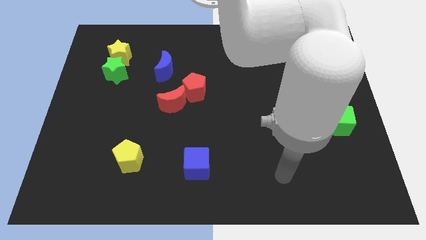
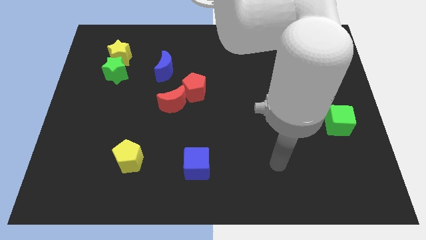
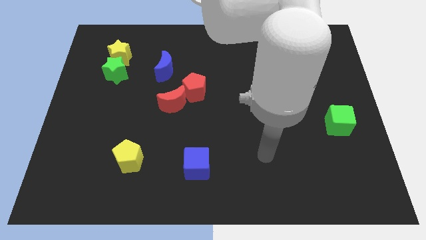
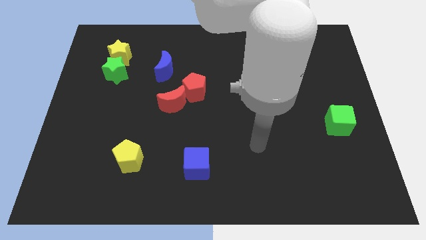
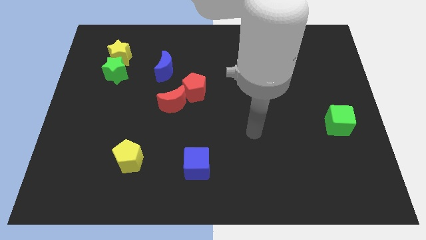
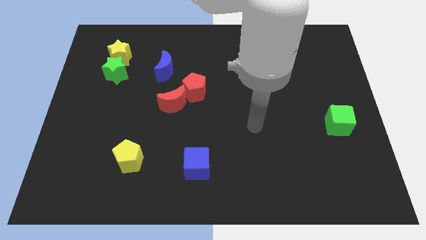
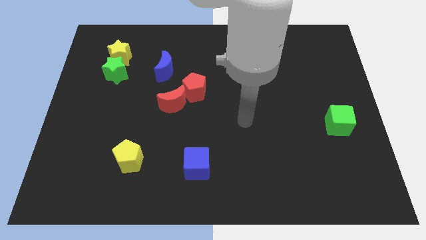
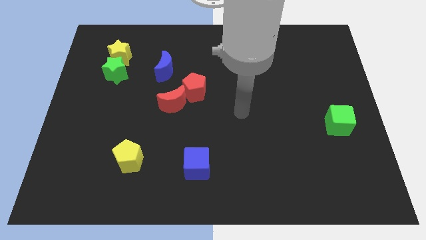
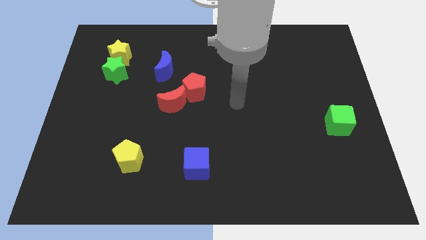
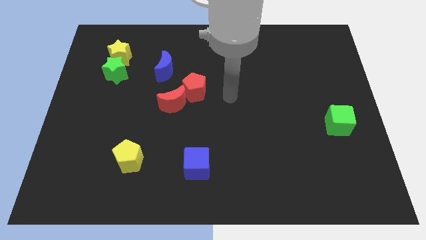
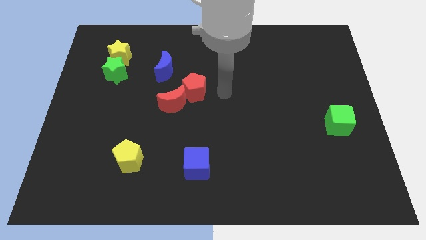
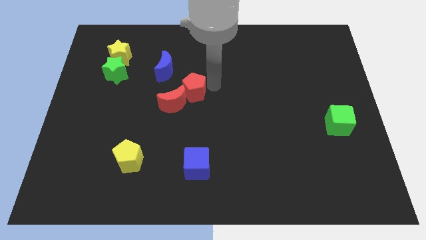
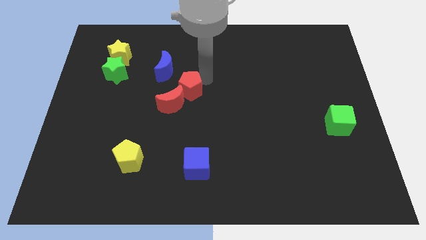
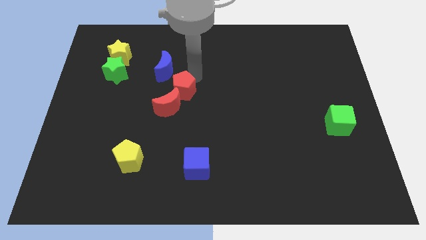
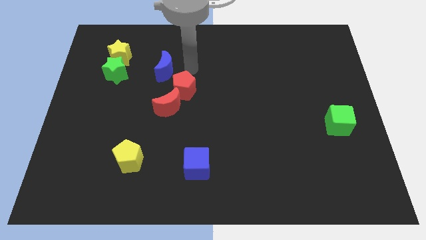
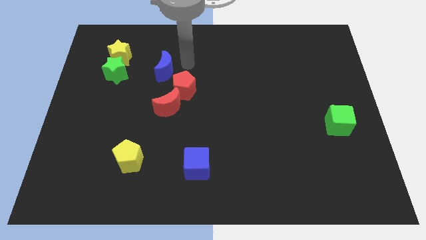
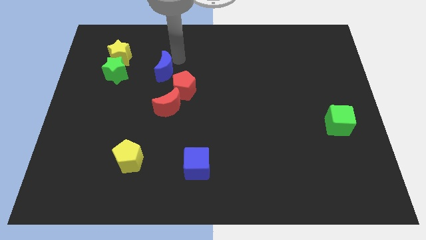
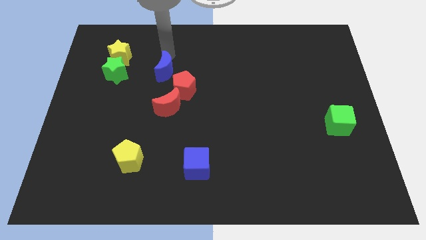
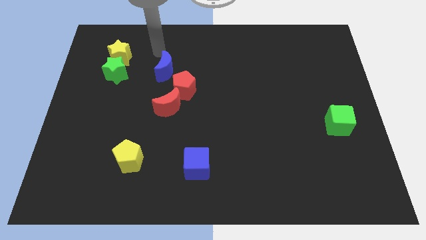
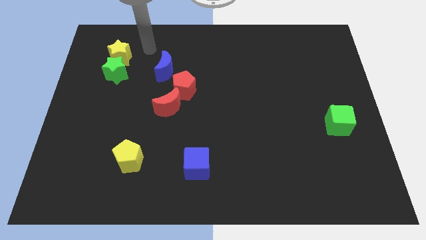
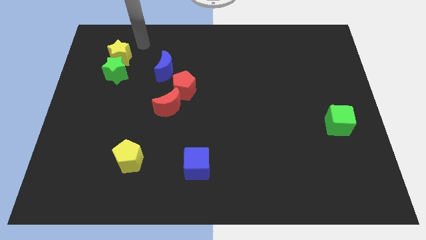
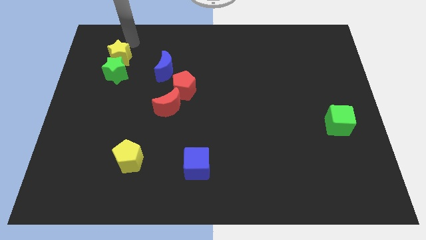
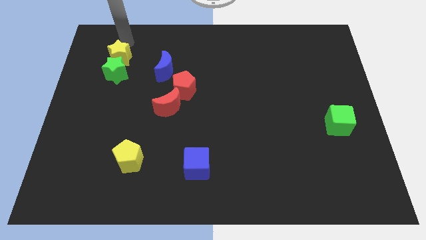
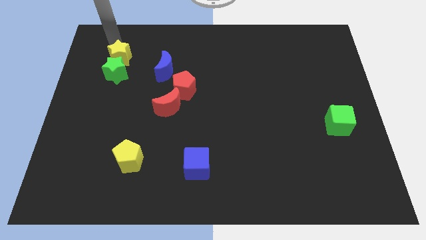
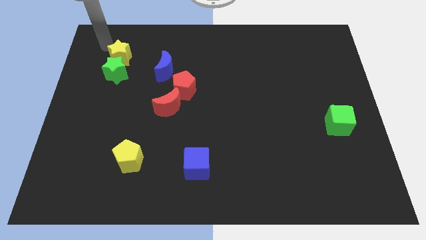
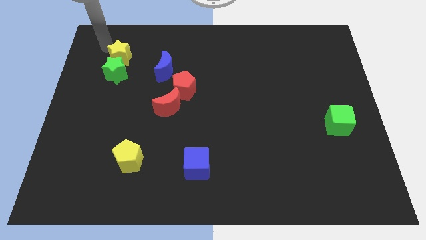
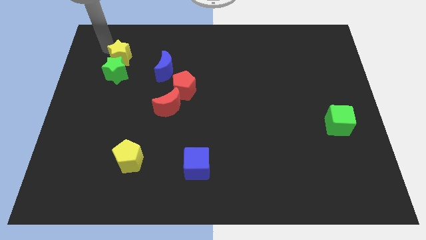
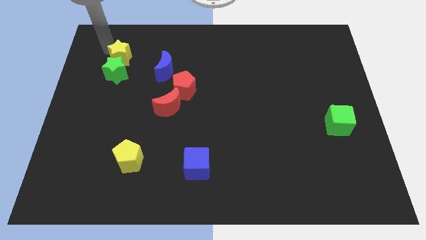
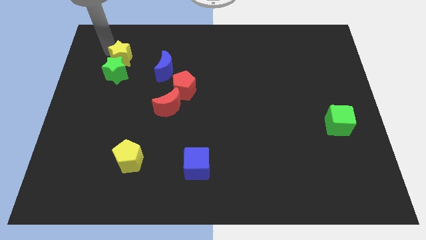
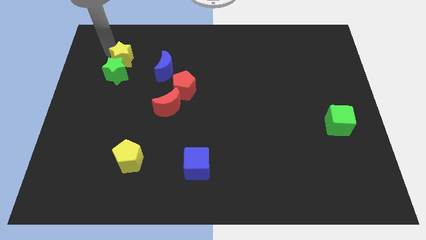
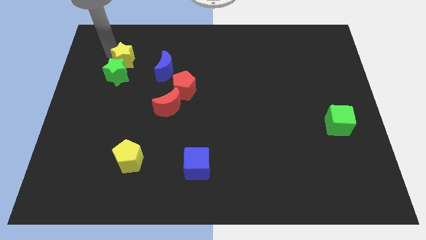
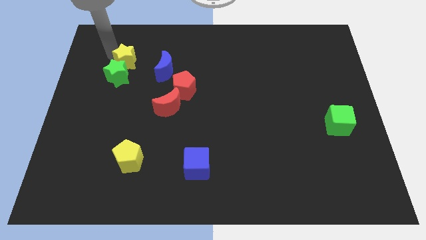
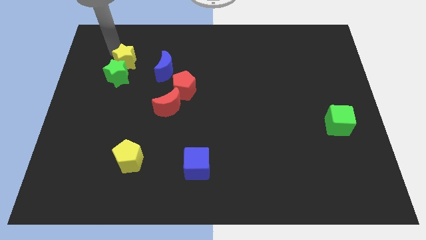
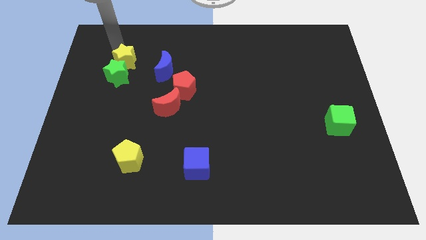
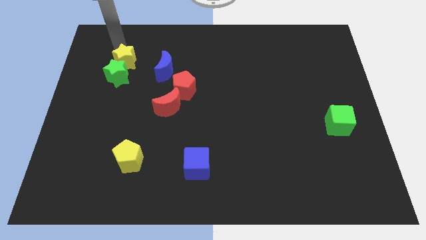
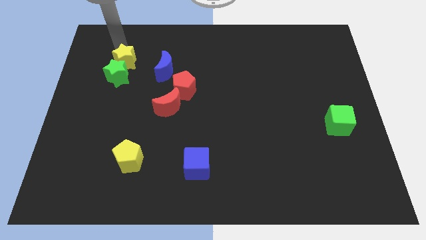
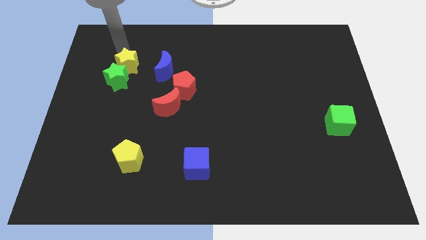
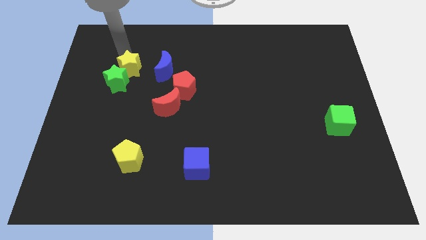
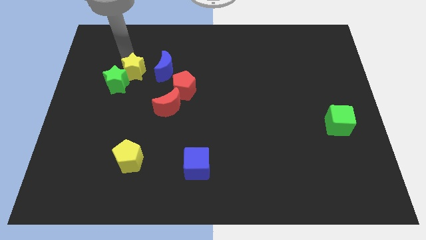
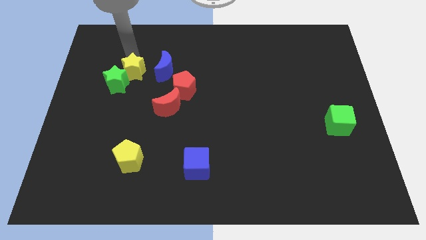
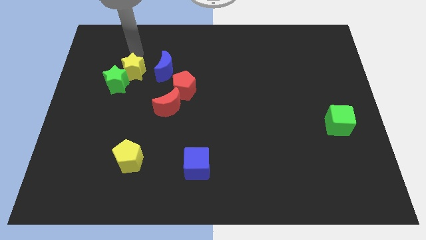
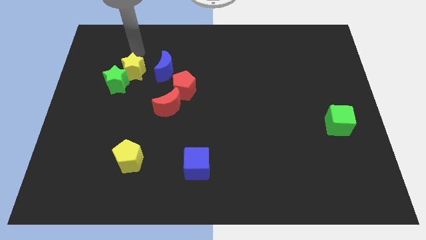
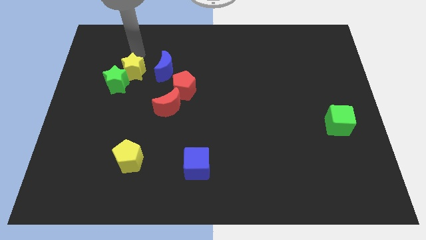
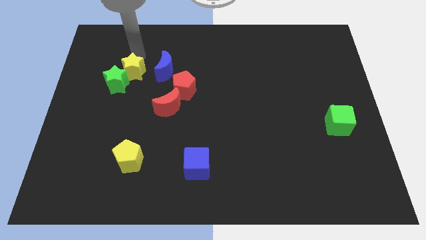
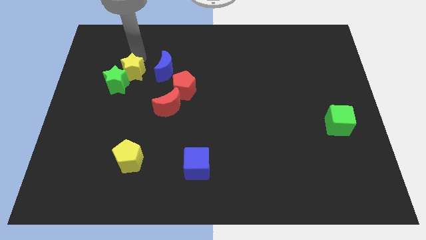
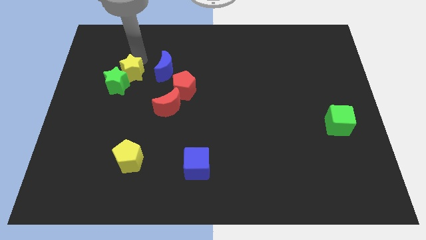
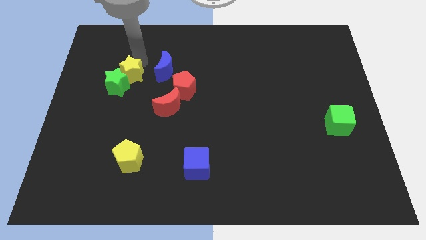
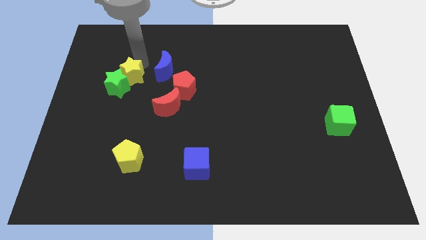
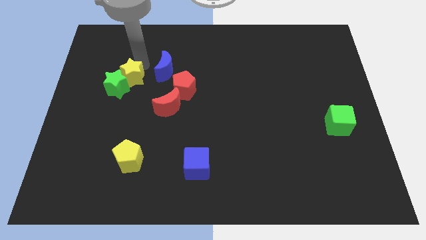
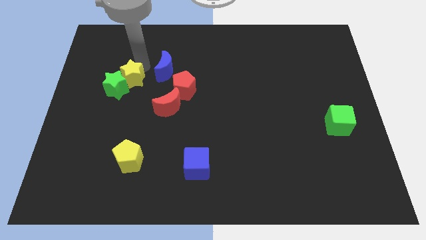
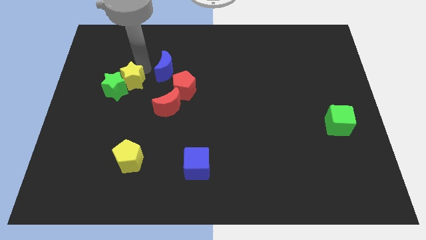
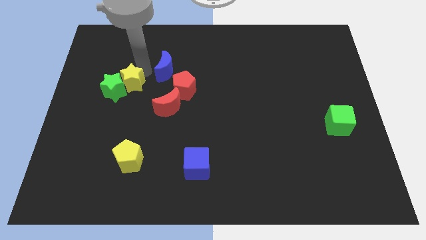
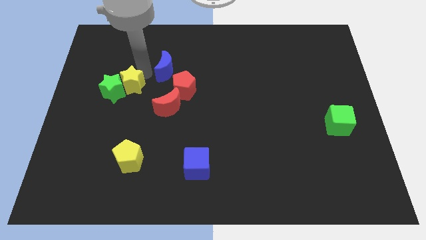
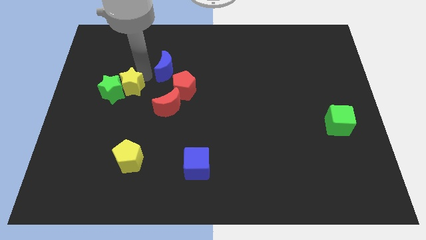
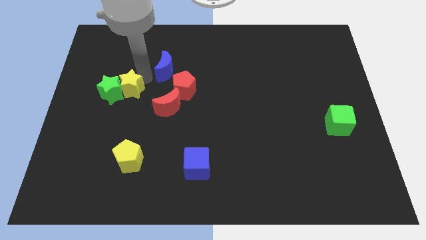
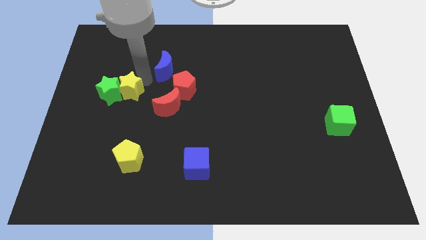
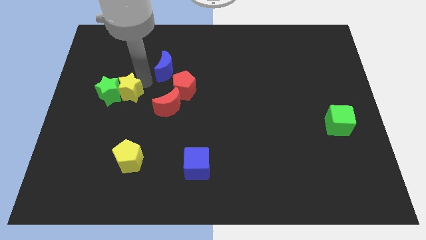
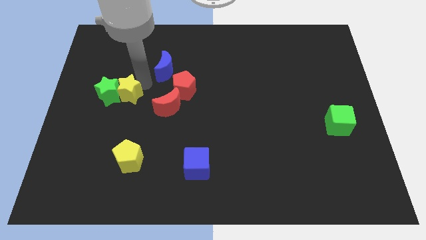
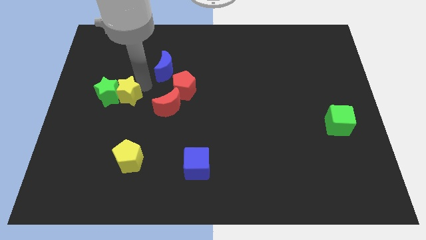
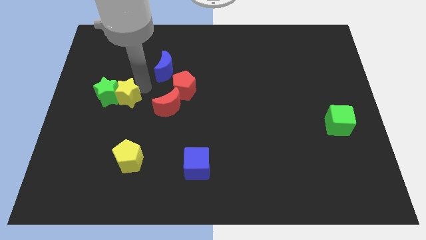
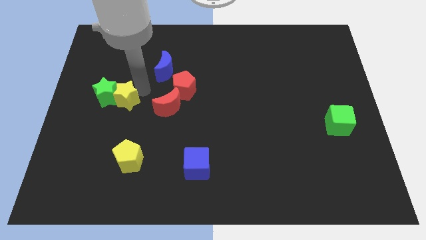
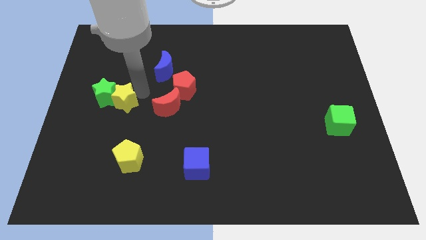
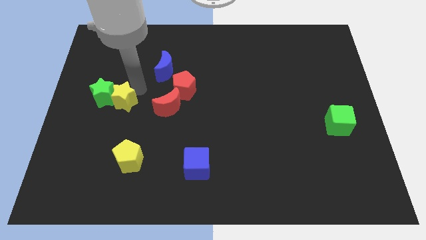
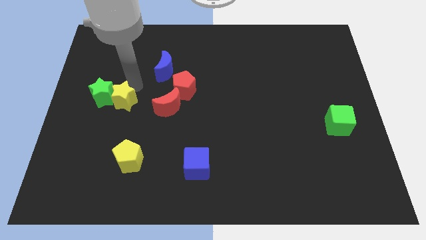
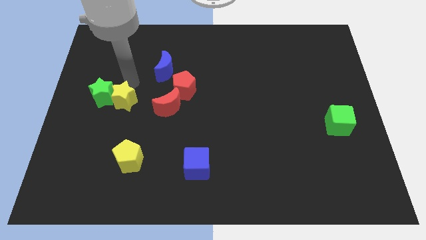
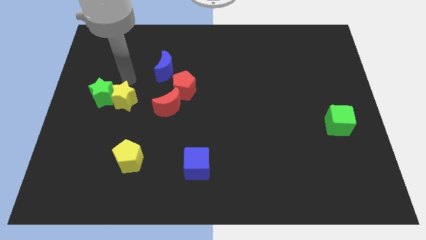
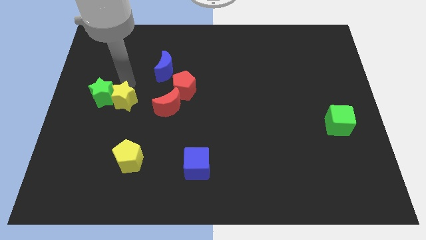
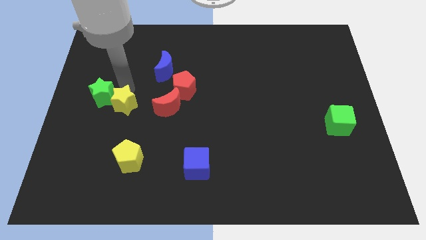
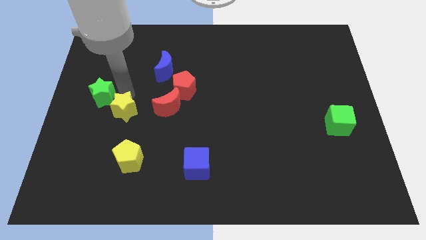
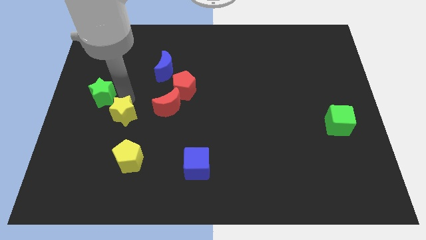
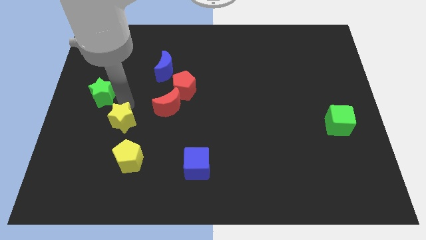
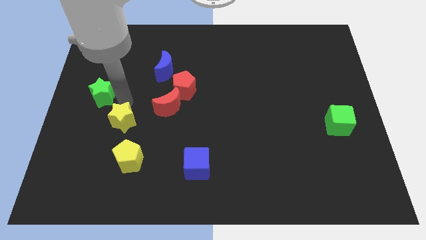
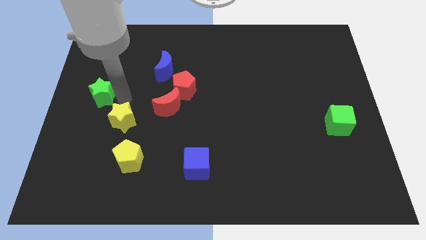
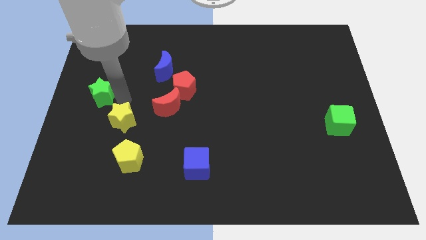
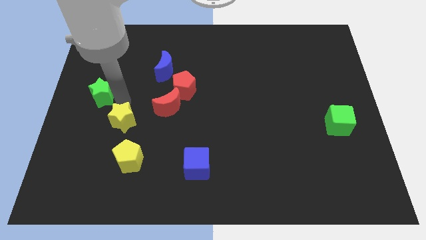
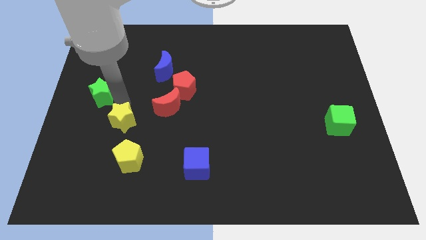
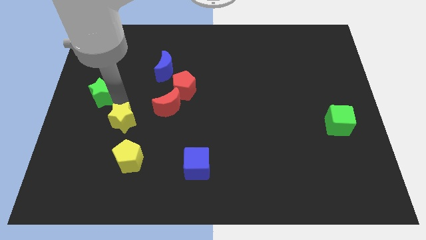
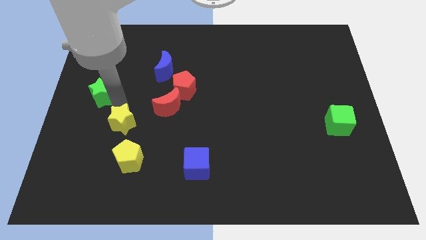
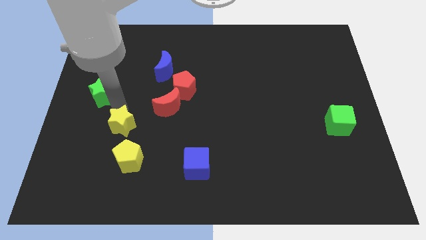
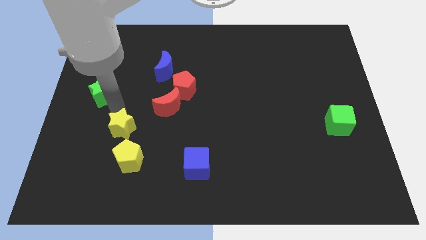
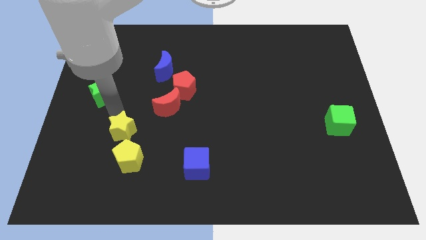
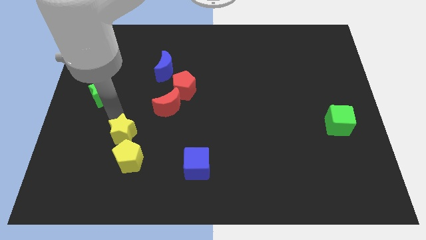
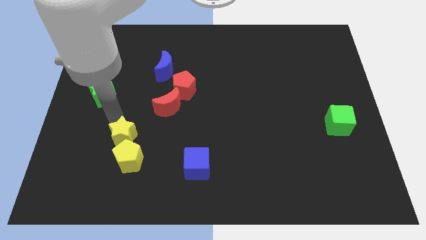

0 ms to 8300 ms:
slide the yellow star to the yellow pentagon
